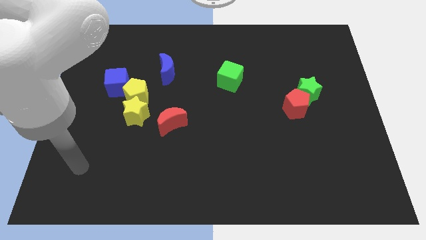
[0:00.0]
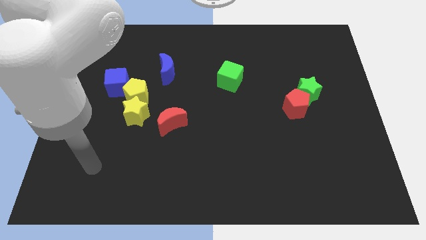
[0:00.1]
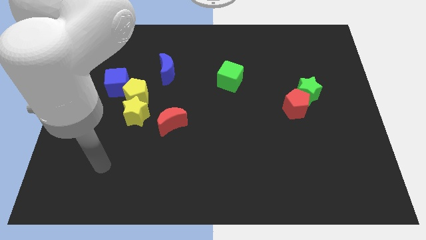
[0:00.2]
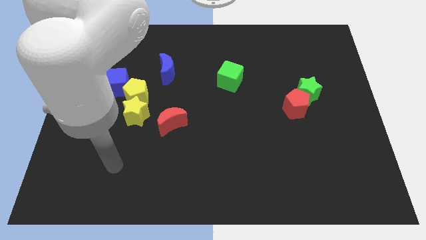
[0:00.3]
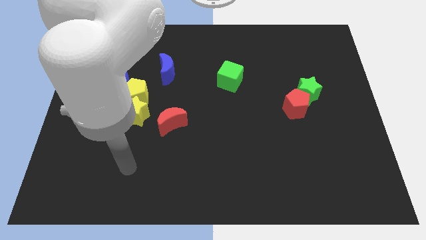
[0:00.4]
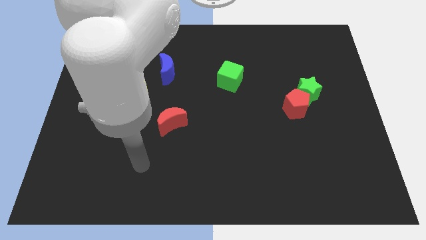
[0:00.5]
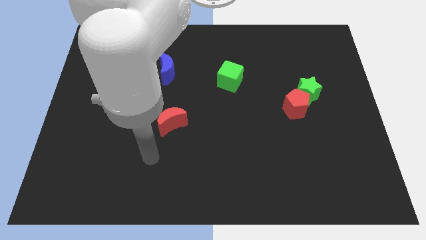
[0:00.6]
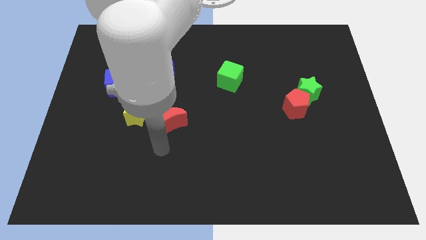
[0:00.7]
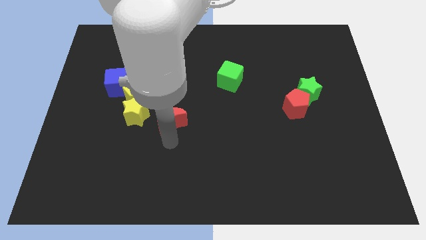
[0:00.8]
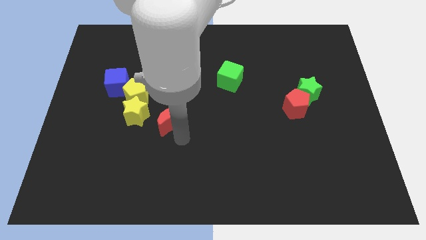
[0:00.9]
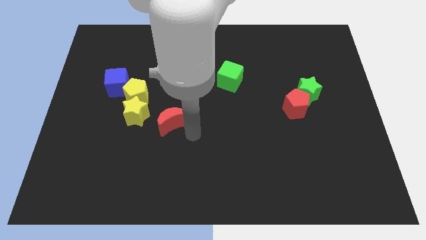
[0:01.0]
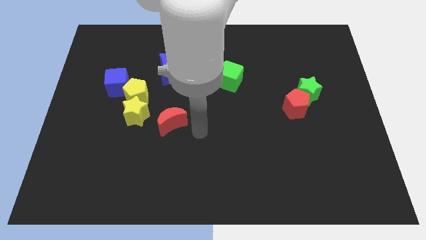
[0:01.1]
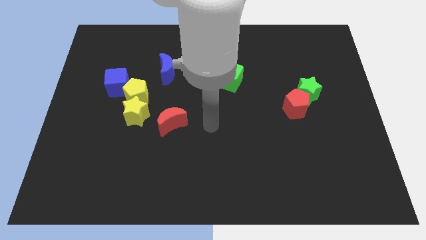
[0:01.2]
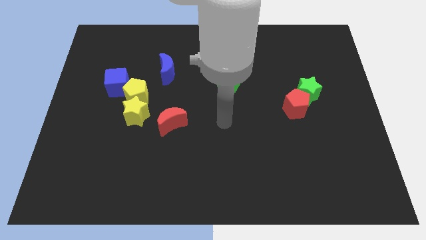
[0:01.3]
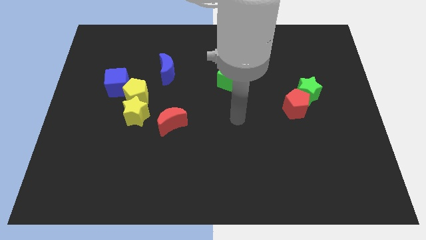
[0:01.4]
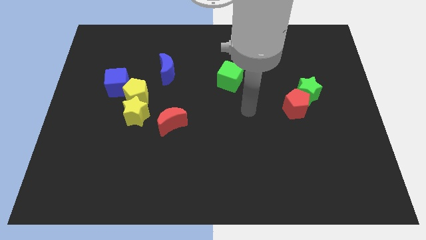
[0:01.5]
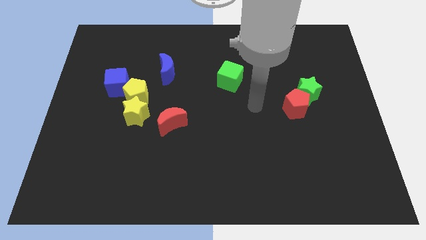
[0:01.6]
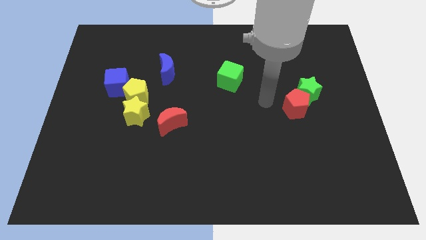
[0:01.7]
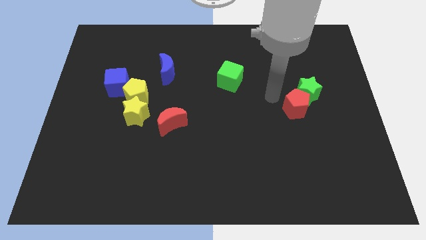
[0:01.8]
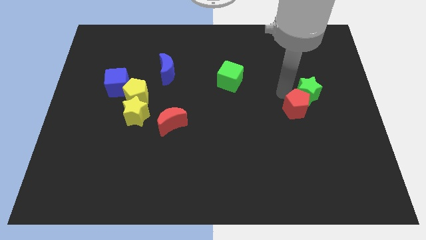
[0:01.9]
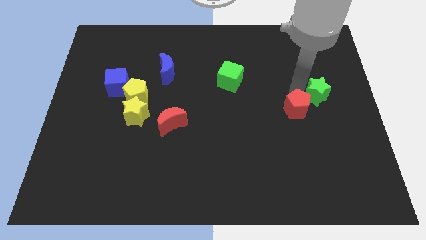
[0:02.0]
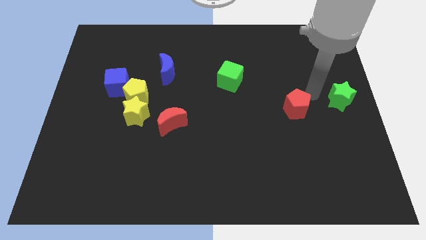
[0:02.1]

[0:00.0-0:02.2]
pull the red pentagon apart from the green star

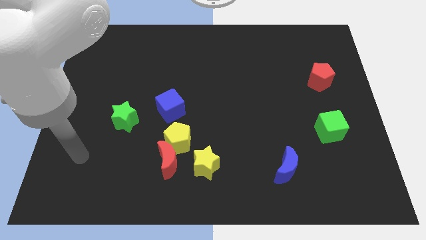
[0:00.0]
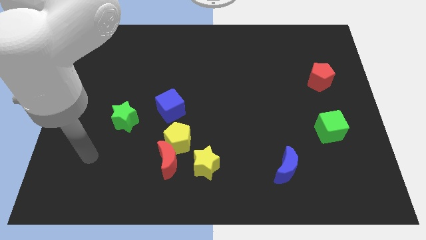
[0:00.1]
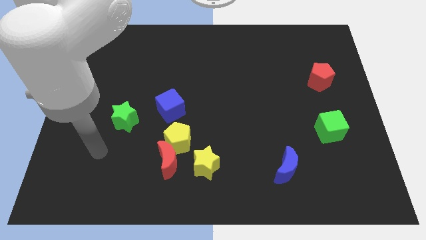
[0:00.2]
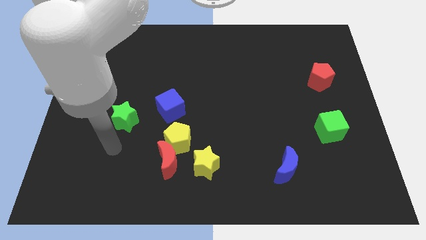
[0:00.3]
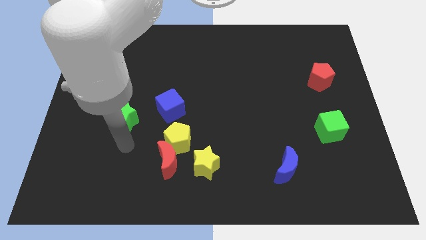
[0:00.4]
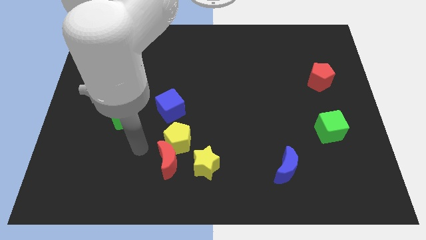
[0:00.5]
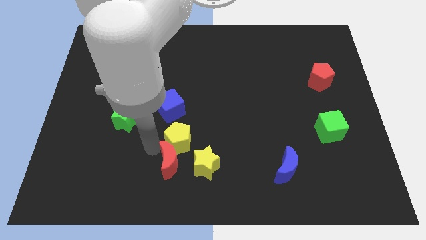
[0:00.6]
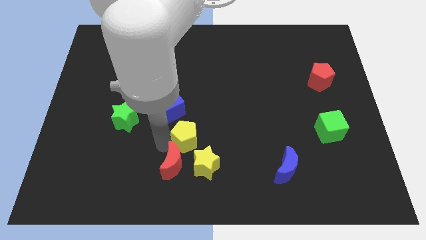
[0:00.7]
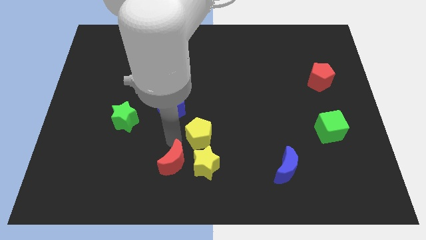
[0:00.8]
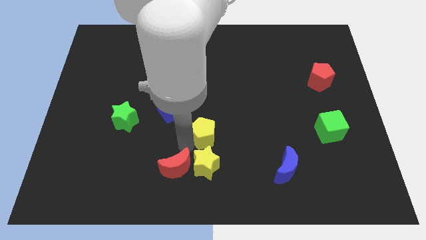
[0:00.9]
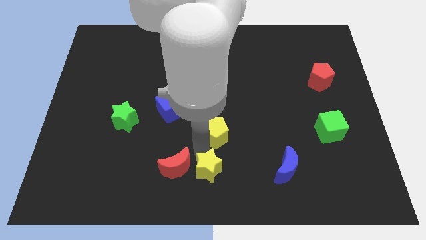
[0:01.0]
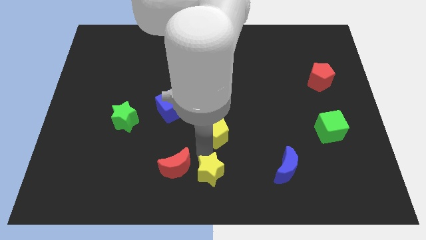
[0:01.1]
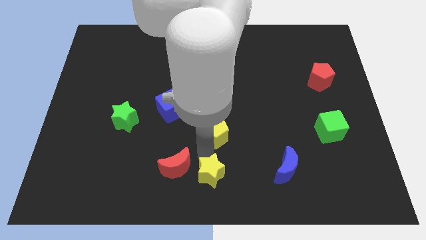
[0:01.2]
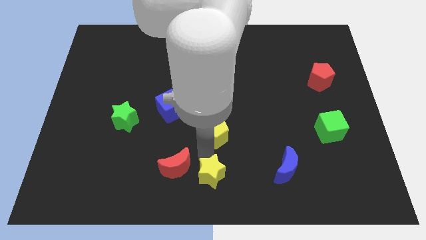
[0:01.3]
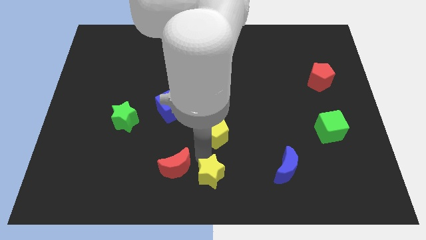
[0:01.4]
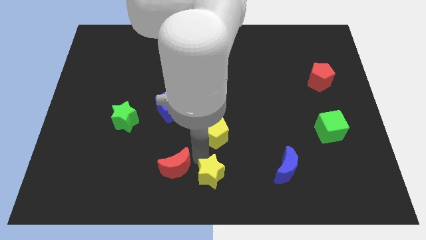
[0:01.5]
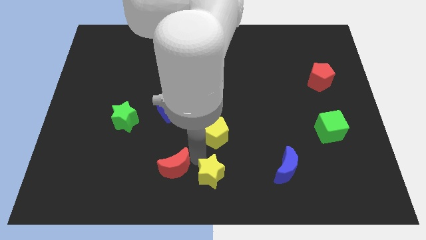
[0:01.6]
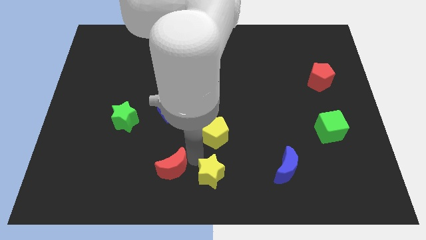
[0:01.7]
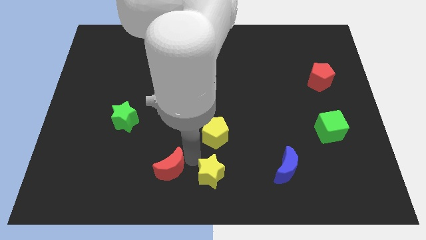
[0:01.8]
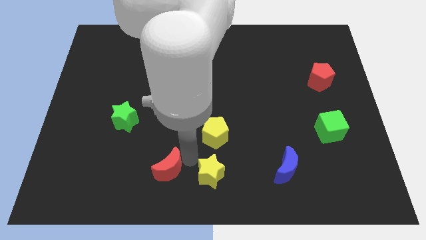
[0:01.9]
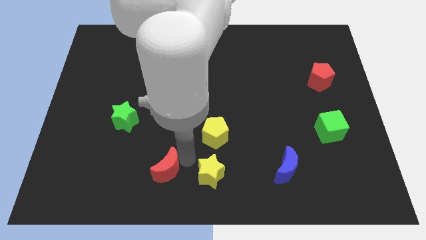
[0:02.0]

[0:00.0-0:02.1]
pull the red moon apart from the yellow pentagon and yellow star

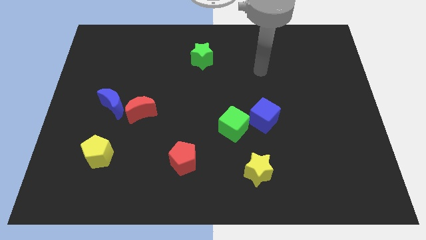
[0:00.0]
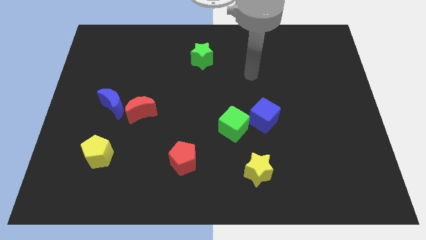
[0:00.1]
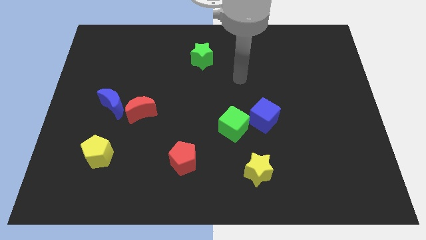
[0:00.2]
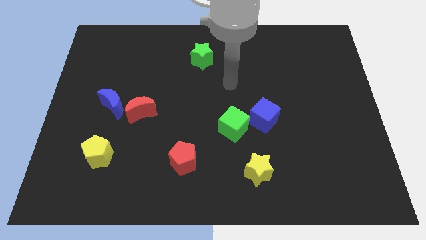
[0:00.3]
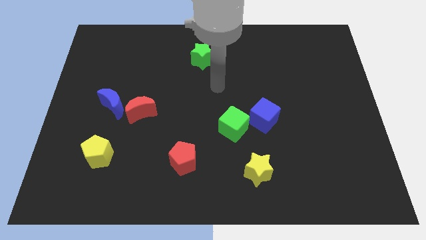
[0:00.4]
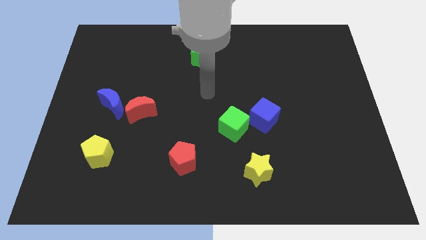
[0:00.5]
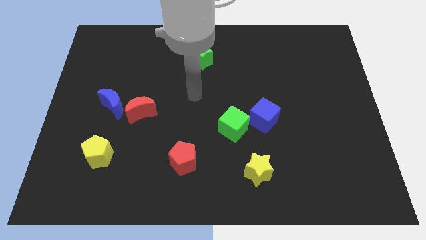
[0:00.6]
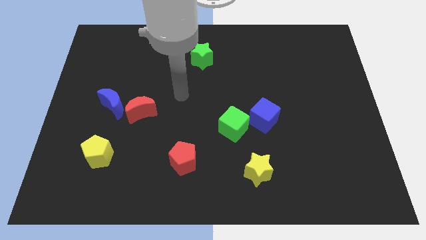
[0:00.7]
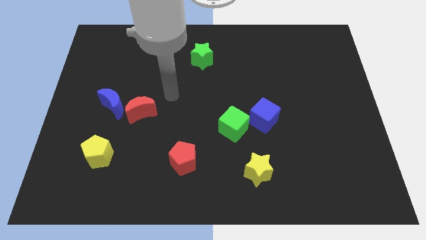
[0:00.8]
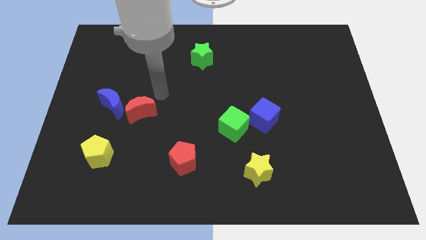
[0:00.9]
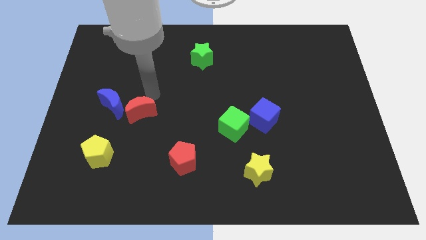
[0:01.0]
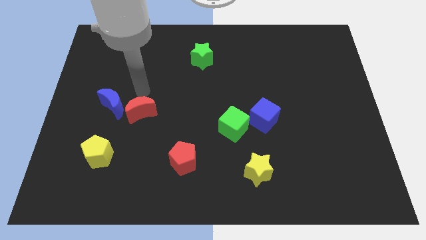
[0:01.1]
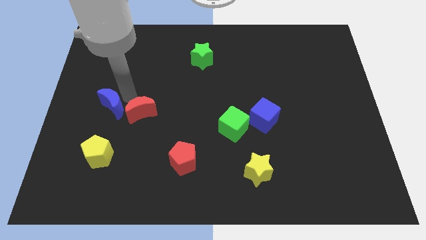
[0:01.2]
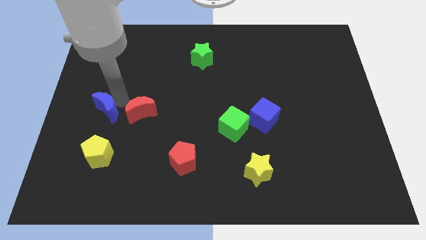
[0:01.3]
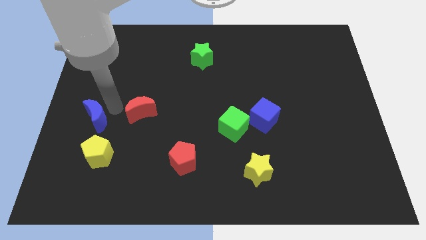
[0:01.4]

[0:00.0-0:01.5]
pull the red moon apart from the blue moon

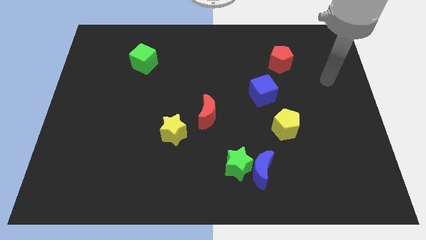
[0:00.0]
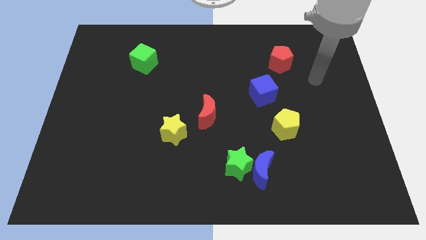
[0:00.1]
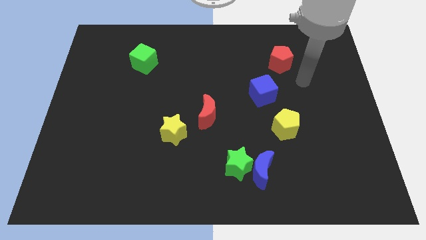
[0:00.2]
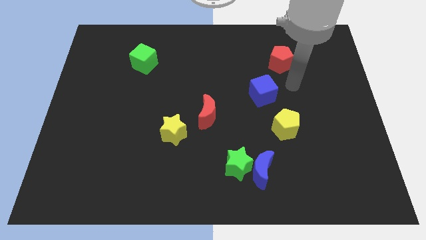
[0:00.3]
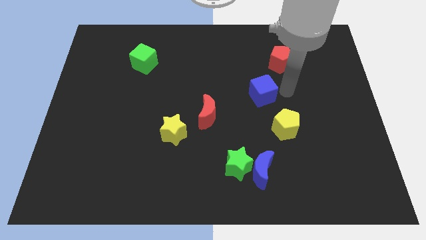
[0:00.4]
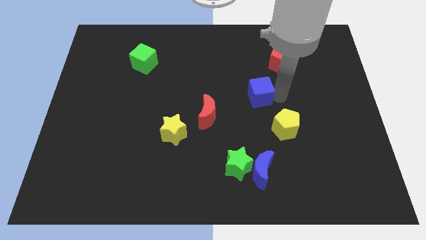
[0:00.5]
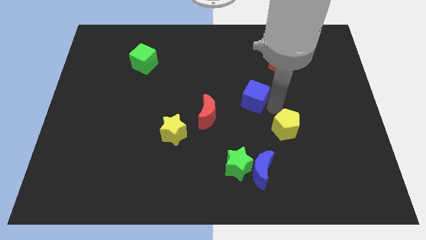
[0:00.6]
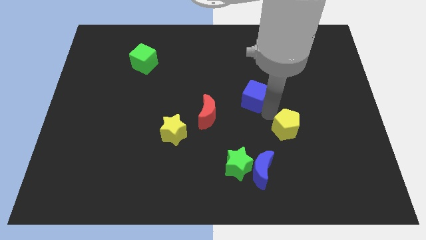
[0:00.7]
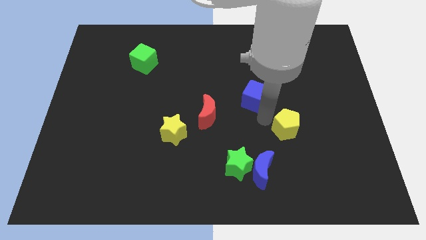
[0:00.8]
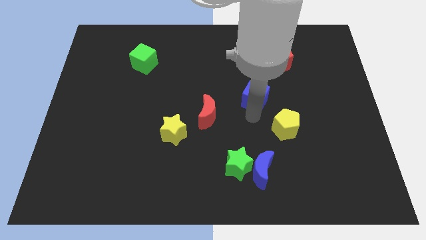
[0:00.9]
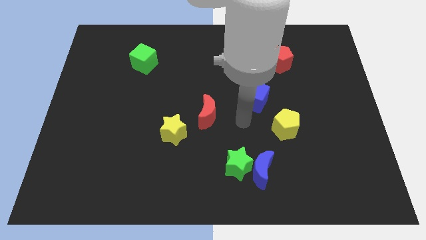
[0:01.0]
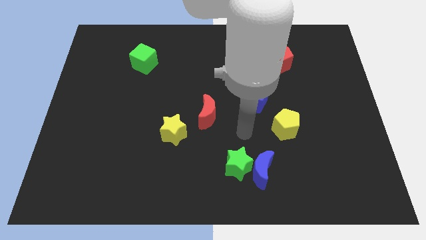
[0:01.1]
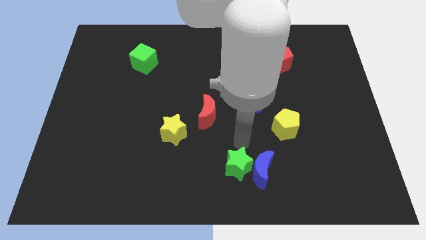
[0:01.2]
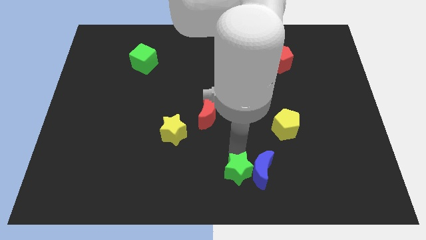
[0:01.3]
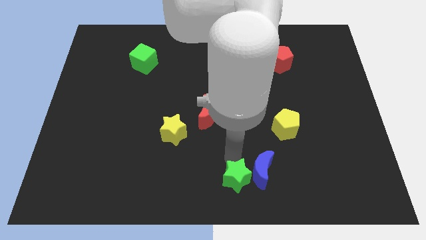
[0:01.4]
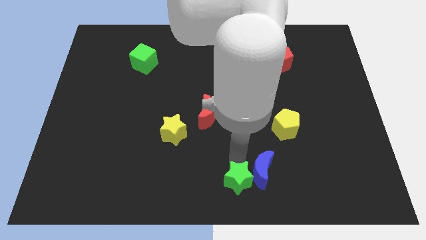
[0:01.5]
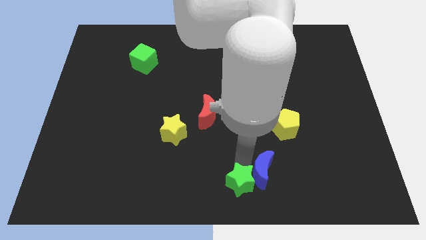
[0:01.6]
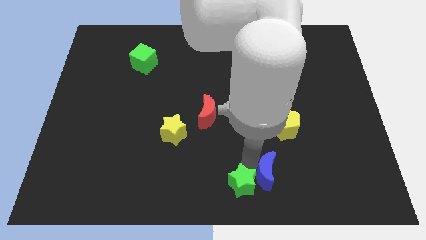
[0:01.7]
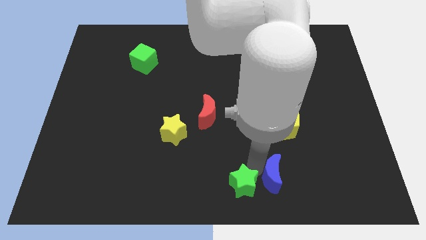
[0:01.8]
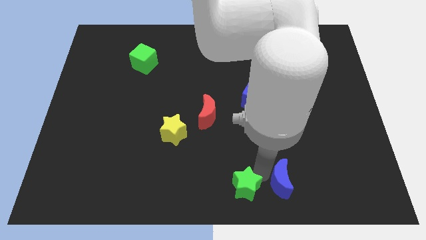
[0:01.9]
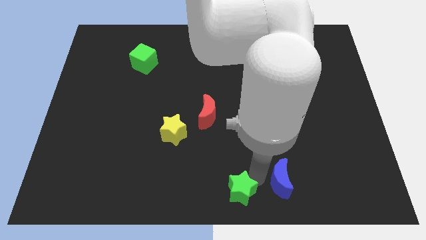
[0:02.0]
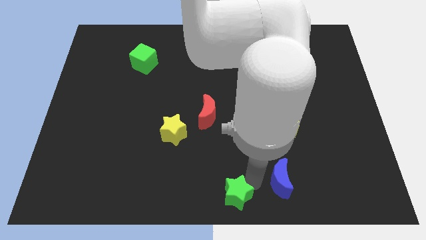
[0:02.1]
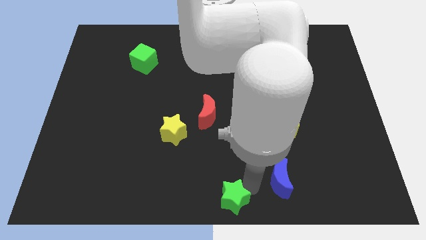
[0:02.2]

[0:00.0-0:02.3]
separate the blue moon from the green star

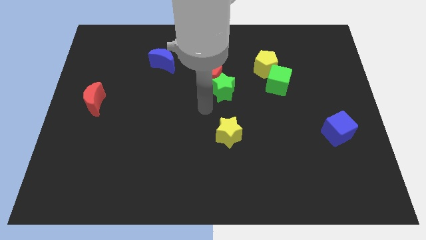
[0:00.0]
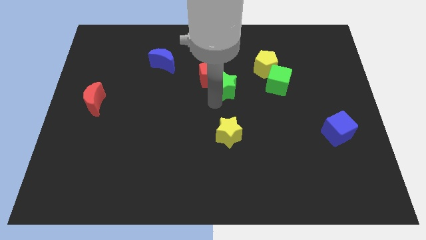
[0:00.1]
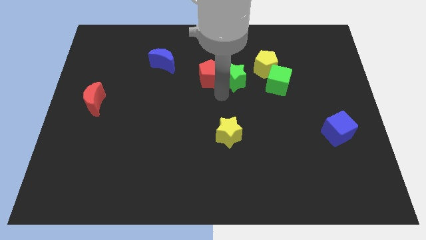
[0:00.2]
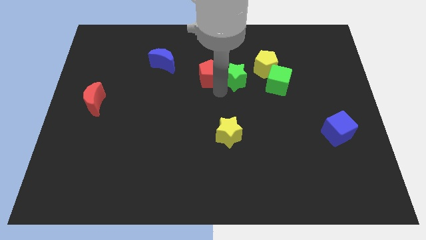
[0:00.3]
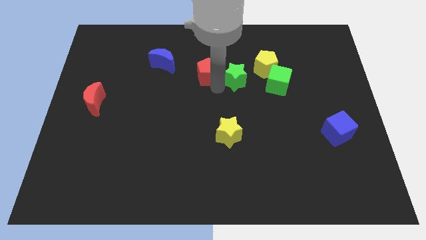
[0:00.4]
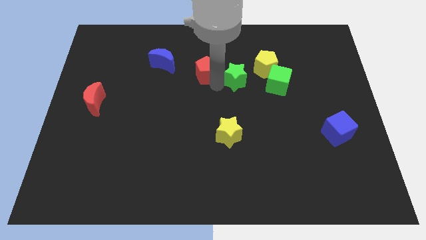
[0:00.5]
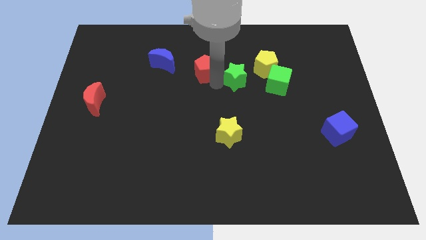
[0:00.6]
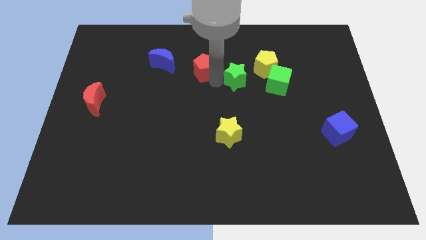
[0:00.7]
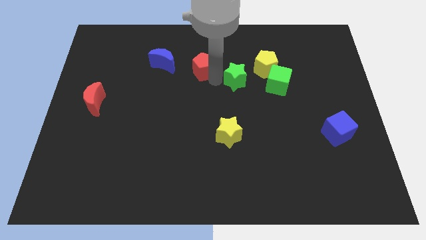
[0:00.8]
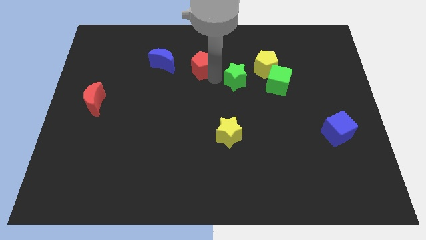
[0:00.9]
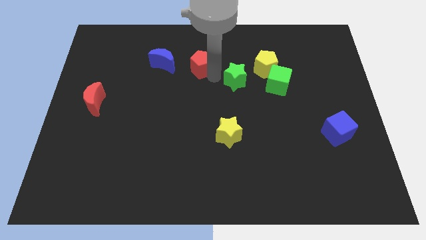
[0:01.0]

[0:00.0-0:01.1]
move the red pentagon away from the green star
